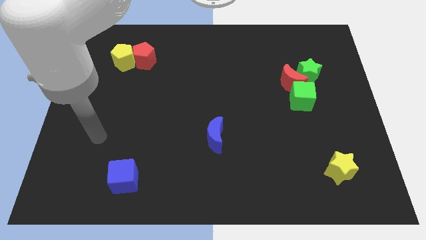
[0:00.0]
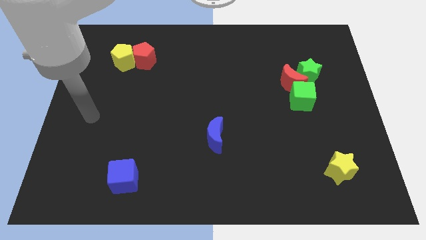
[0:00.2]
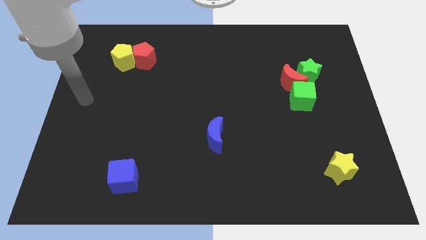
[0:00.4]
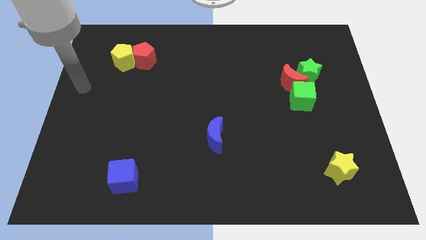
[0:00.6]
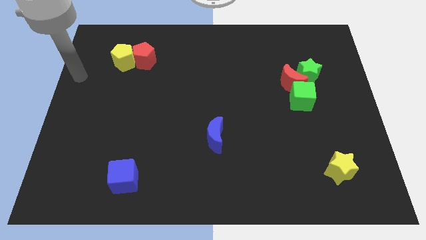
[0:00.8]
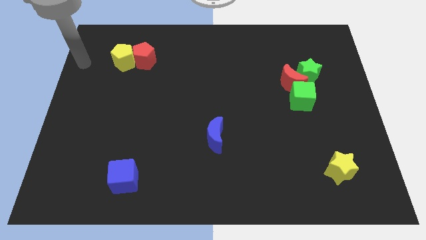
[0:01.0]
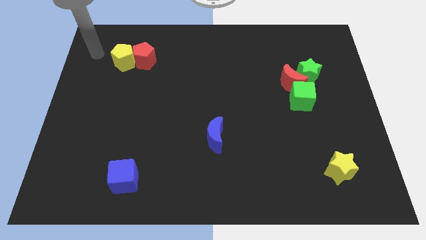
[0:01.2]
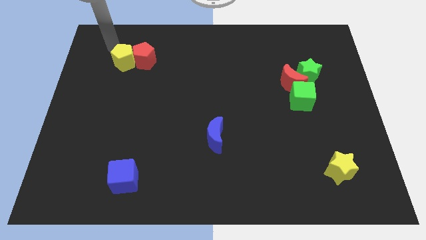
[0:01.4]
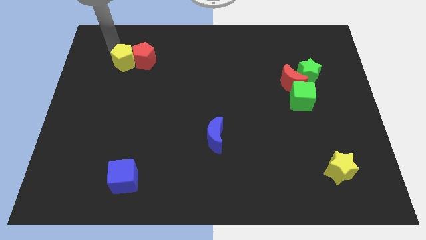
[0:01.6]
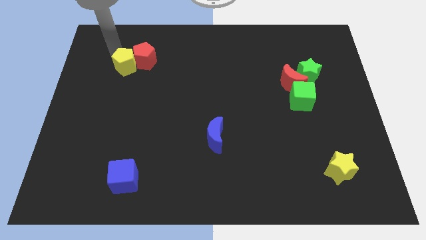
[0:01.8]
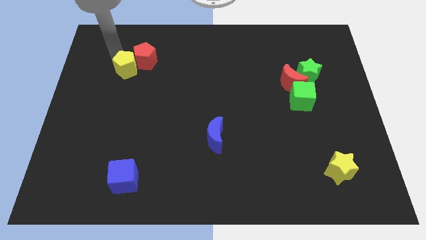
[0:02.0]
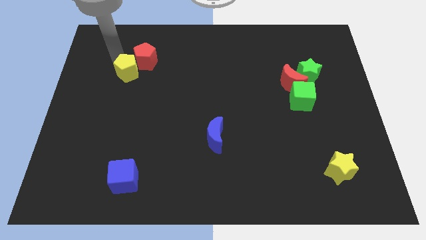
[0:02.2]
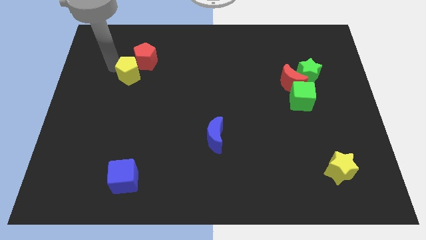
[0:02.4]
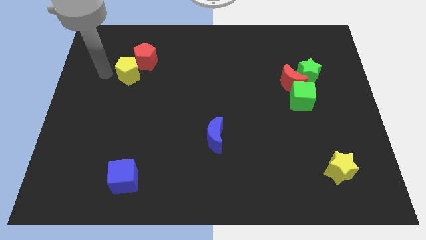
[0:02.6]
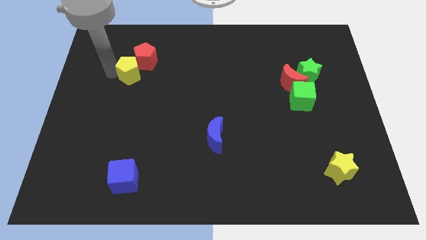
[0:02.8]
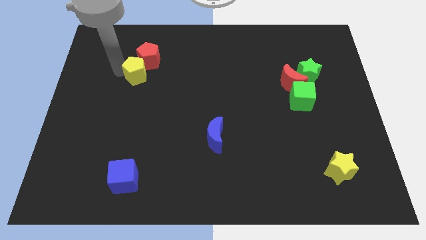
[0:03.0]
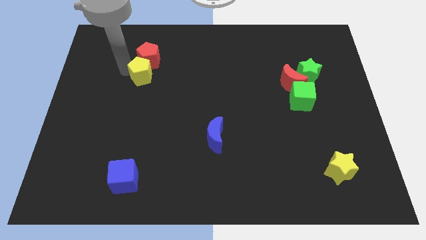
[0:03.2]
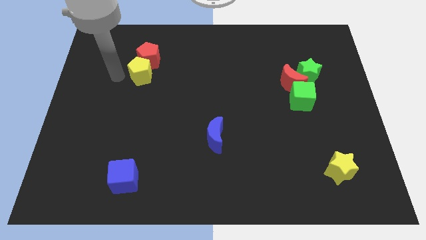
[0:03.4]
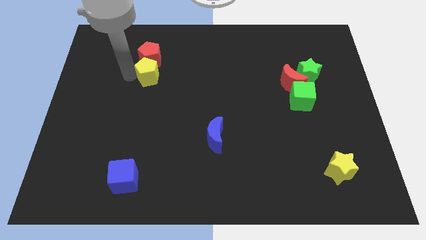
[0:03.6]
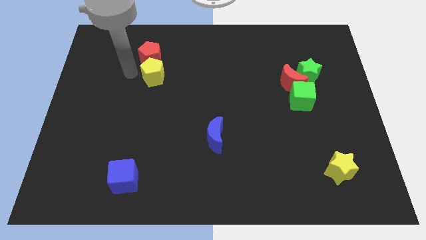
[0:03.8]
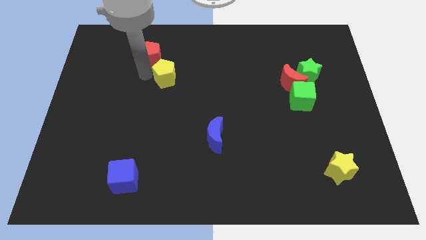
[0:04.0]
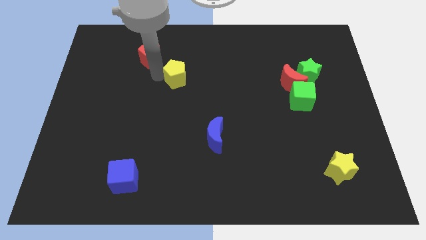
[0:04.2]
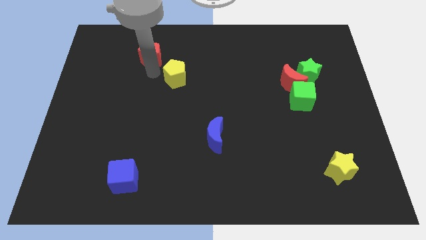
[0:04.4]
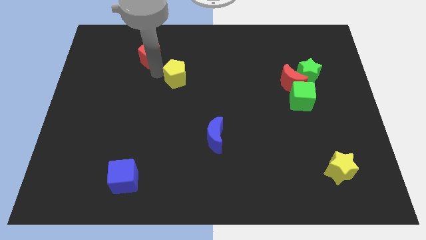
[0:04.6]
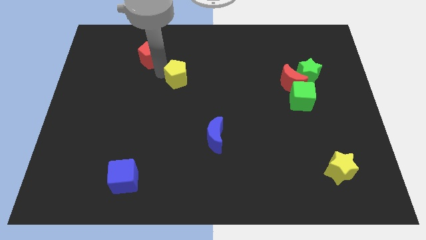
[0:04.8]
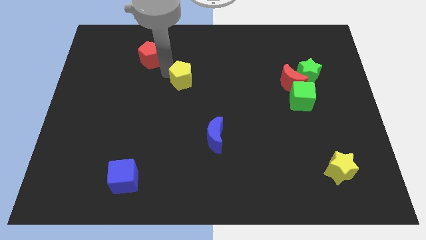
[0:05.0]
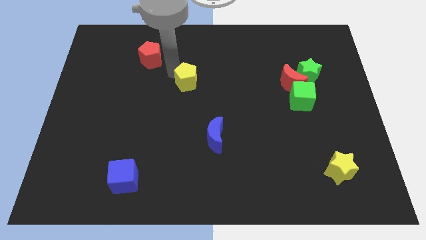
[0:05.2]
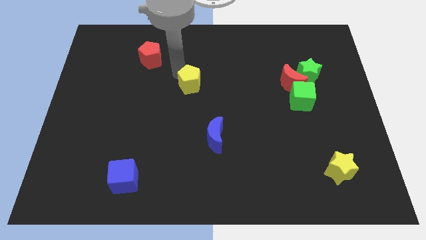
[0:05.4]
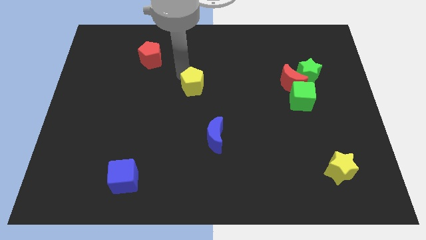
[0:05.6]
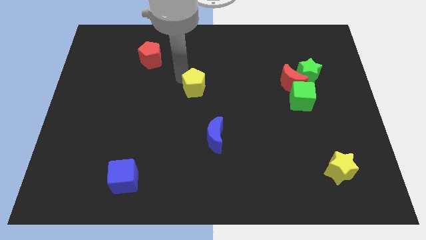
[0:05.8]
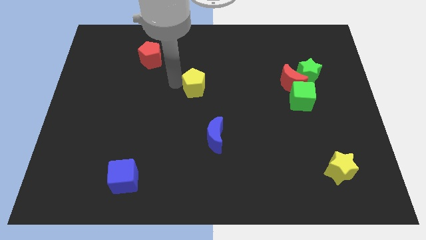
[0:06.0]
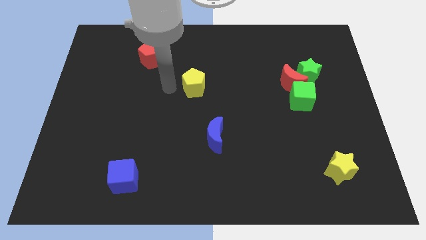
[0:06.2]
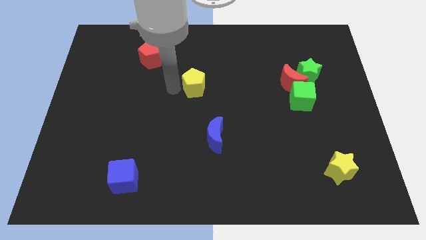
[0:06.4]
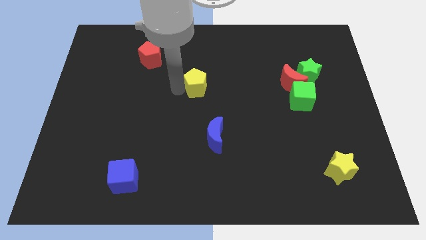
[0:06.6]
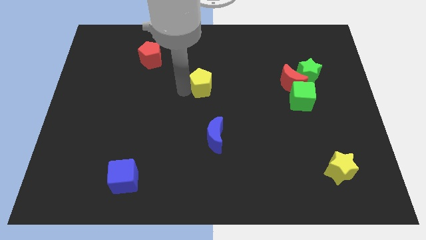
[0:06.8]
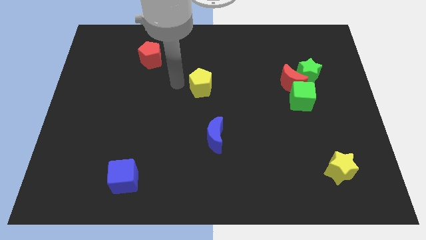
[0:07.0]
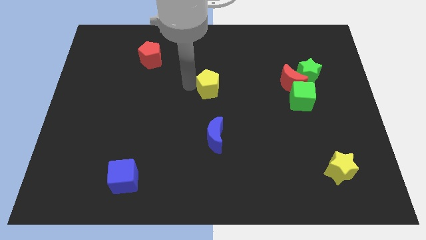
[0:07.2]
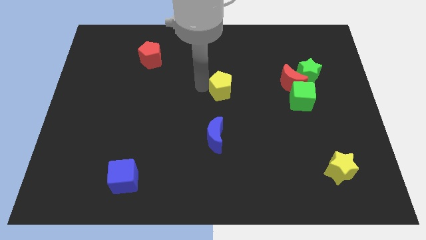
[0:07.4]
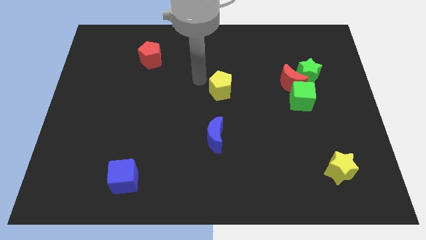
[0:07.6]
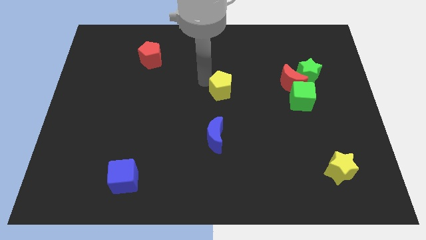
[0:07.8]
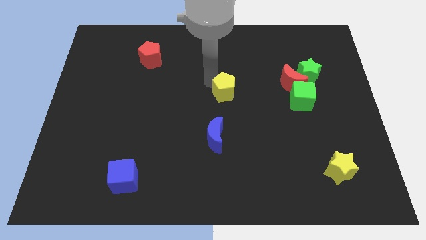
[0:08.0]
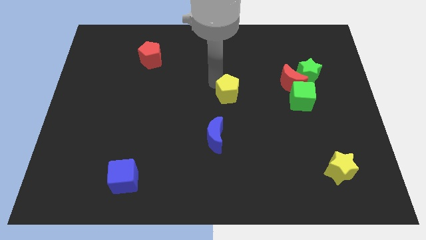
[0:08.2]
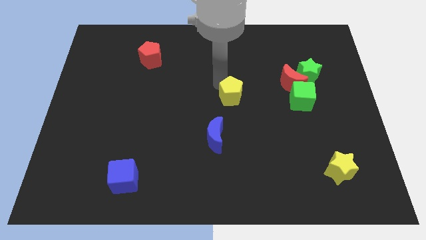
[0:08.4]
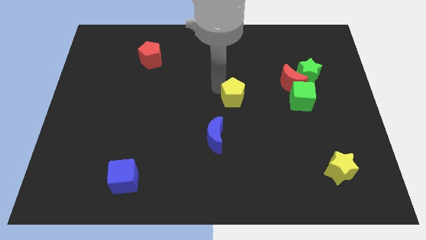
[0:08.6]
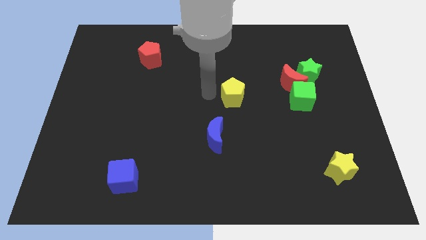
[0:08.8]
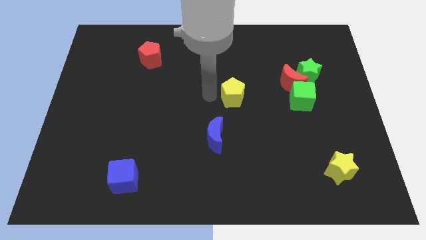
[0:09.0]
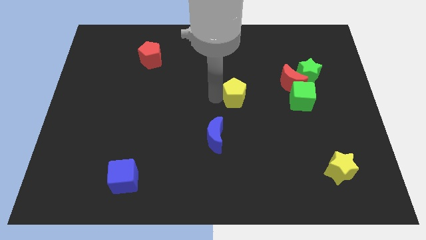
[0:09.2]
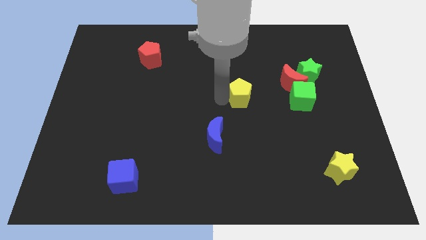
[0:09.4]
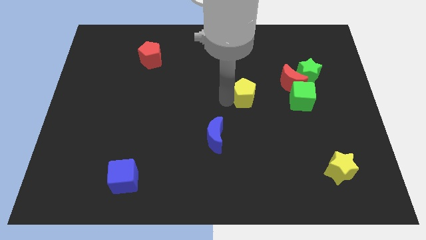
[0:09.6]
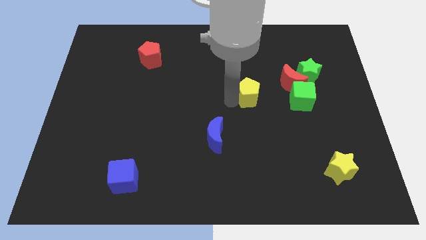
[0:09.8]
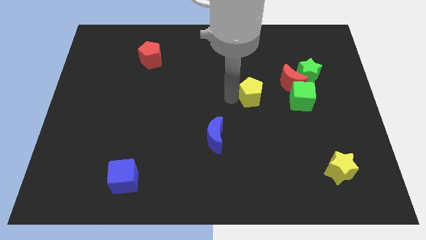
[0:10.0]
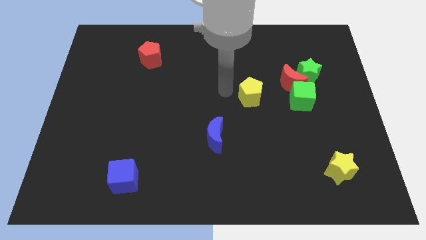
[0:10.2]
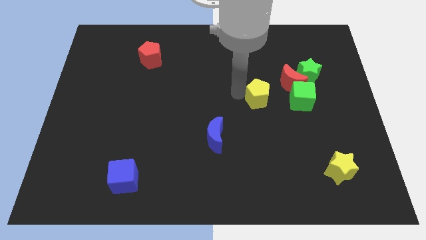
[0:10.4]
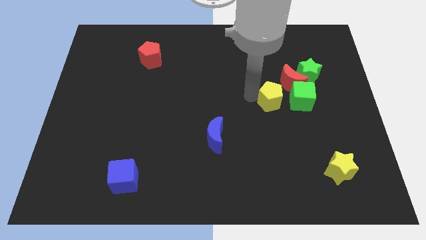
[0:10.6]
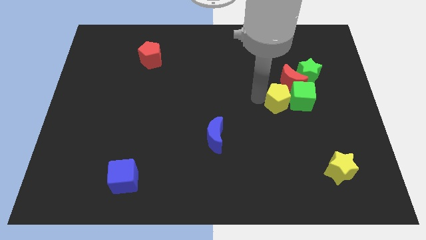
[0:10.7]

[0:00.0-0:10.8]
push the yellow pentagon close to the green cube

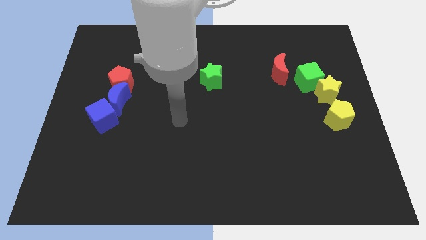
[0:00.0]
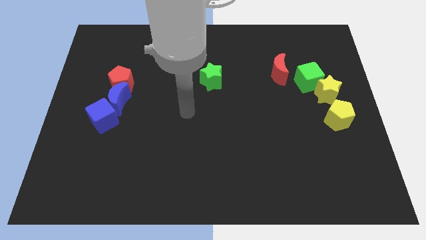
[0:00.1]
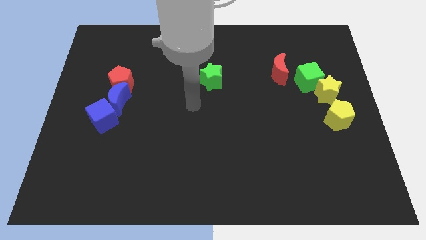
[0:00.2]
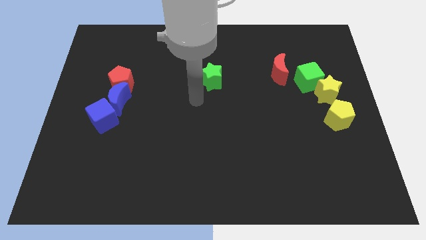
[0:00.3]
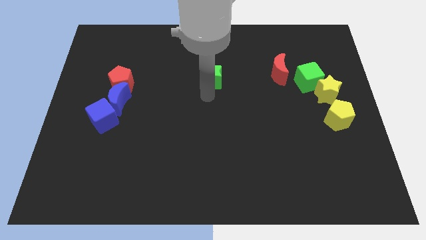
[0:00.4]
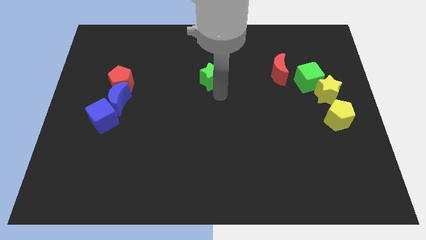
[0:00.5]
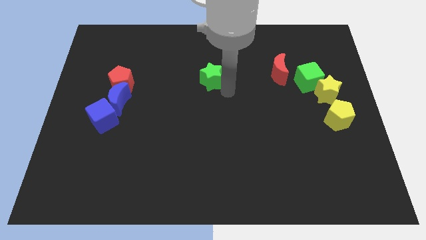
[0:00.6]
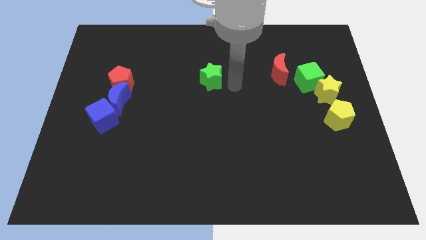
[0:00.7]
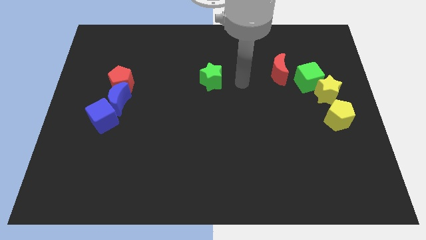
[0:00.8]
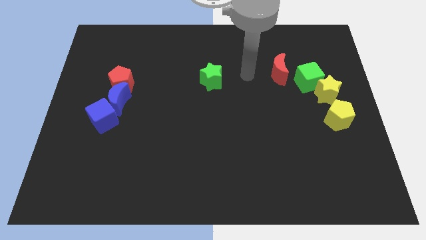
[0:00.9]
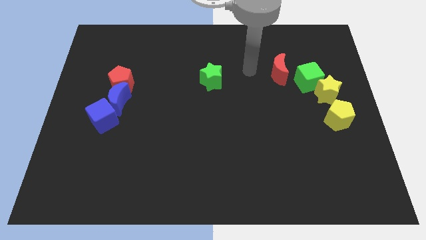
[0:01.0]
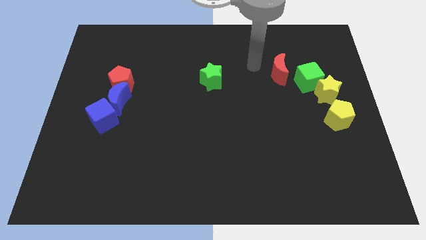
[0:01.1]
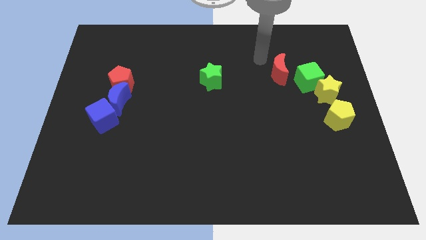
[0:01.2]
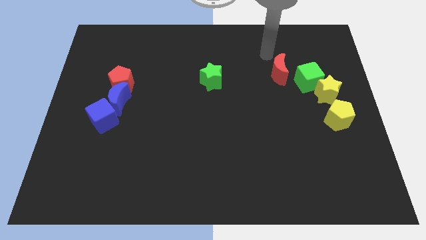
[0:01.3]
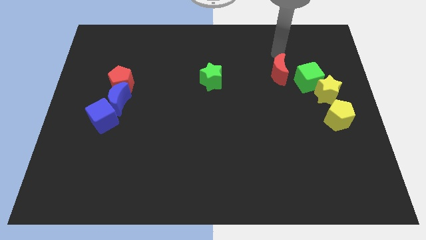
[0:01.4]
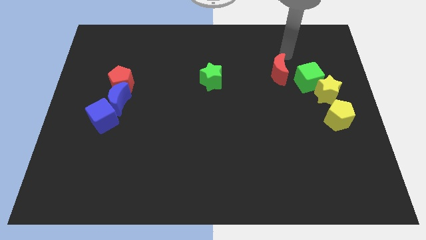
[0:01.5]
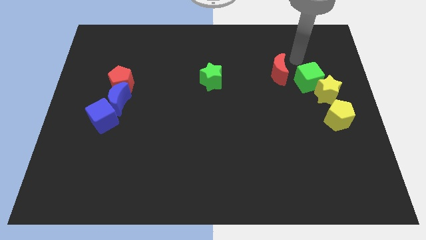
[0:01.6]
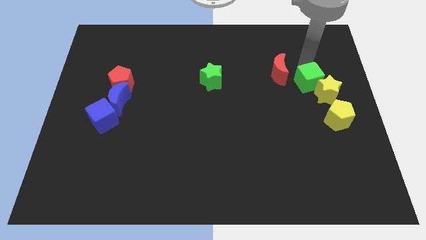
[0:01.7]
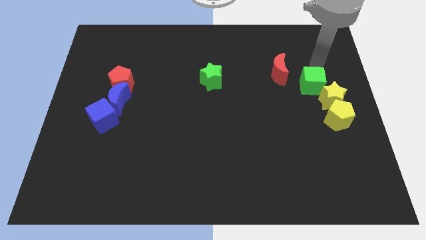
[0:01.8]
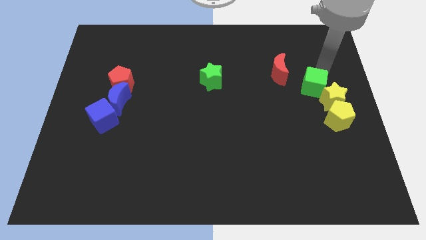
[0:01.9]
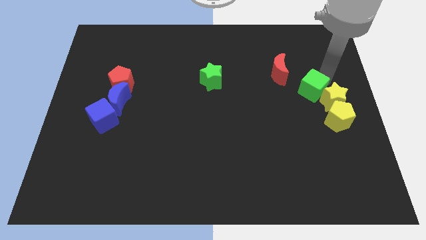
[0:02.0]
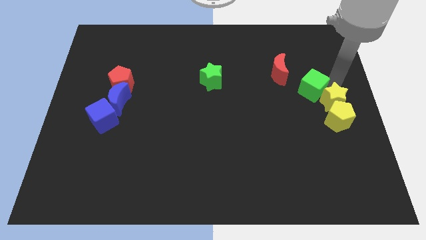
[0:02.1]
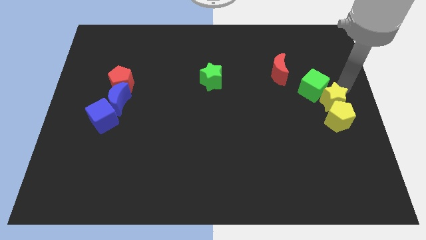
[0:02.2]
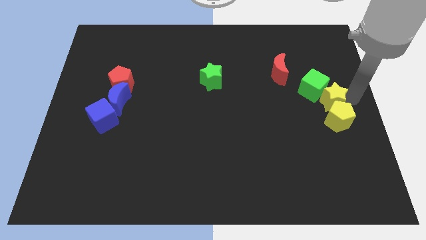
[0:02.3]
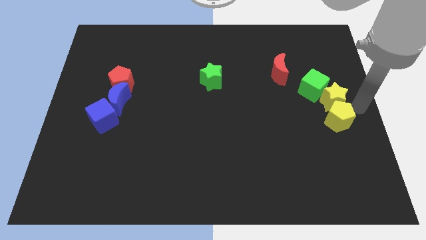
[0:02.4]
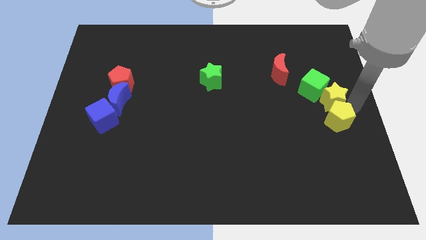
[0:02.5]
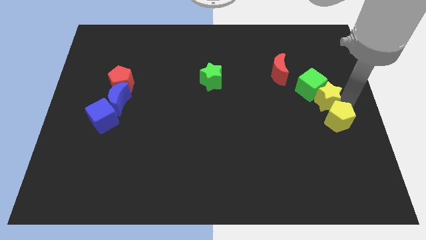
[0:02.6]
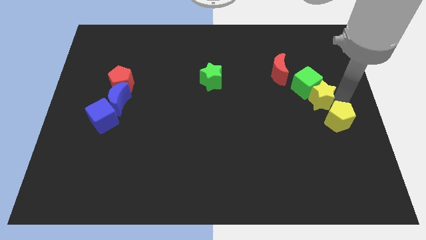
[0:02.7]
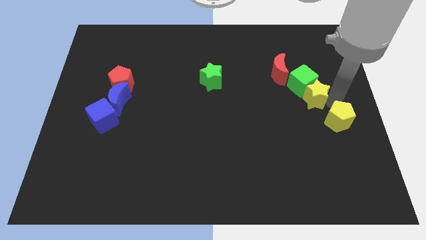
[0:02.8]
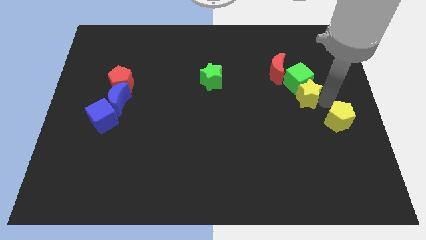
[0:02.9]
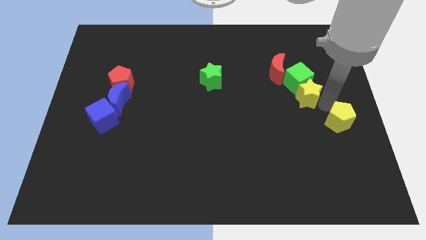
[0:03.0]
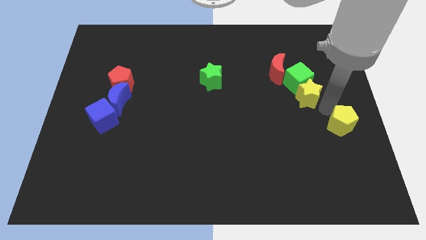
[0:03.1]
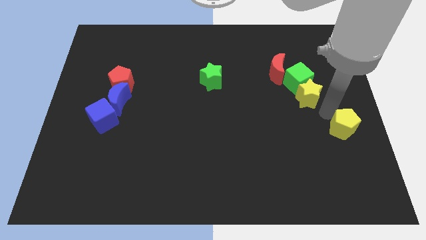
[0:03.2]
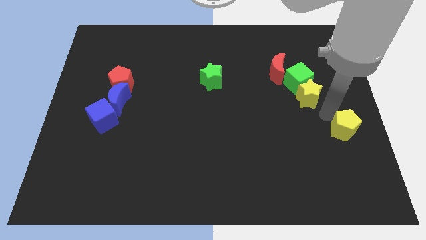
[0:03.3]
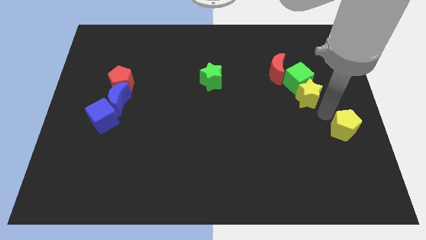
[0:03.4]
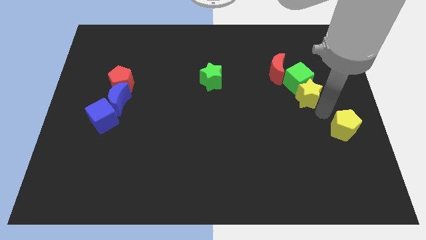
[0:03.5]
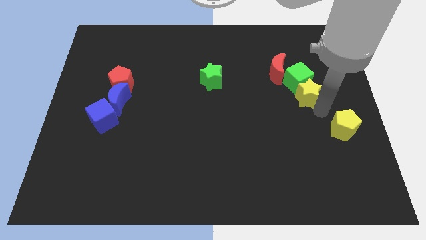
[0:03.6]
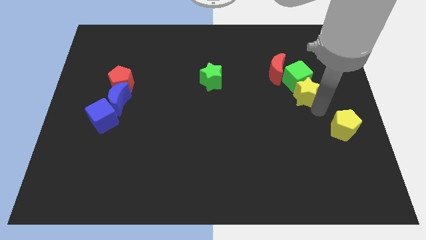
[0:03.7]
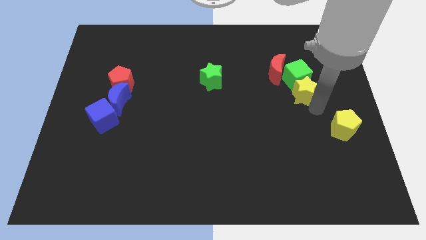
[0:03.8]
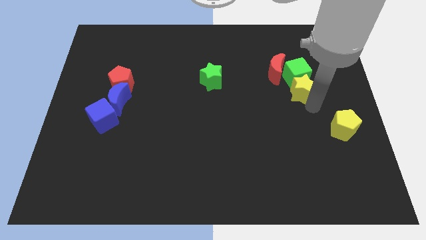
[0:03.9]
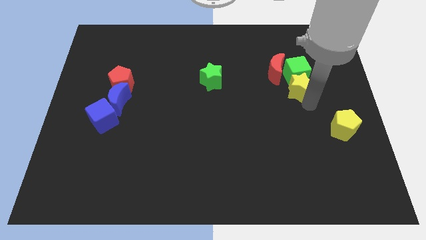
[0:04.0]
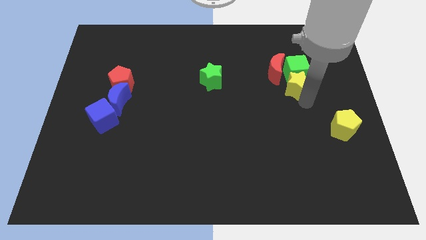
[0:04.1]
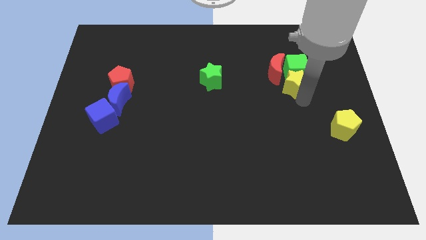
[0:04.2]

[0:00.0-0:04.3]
slide the yellow star towards the red moon
